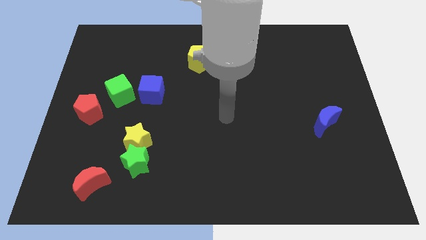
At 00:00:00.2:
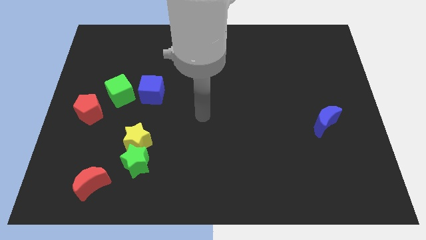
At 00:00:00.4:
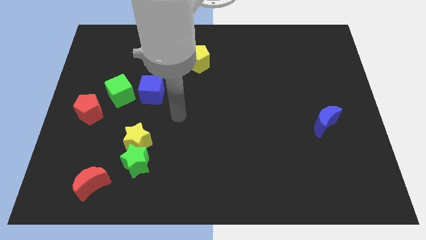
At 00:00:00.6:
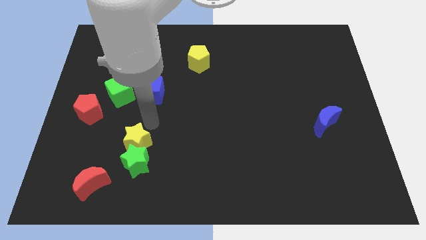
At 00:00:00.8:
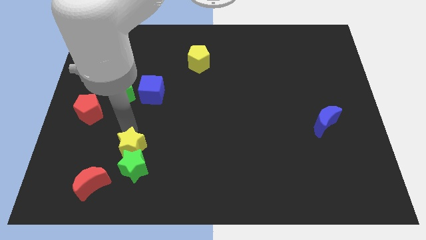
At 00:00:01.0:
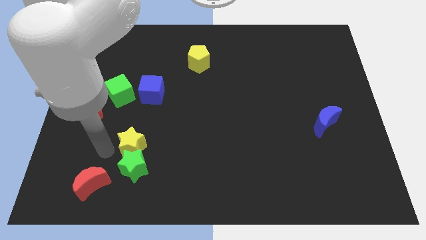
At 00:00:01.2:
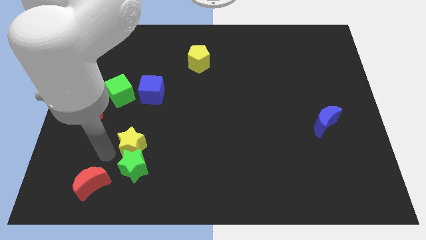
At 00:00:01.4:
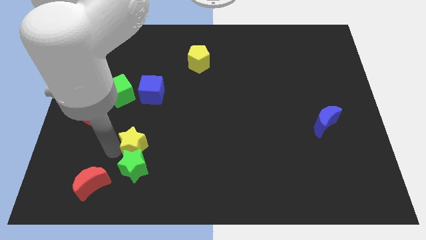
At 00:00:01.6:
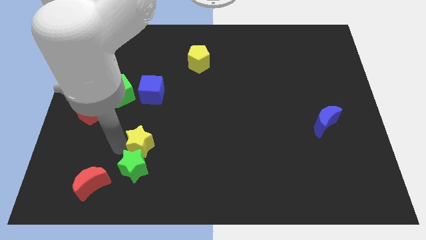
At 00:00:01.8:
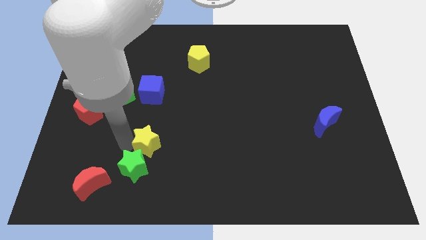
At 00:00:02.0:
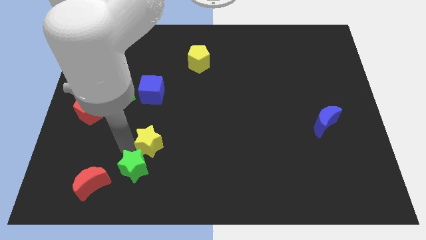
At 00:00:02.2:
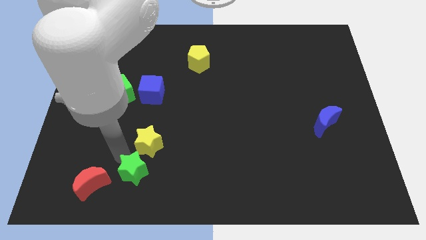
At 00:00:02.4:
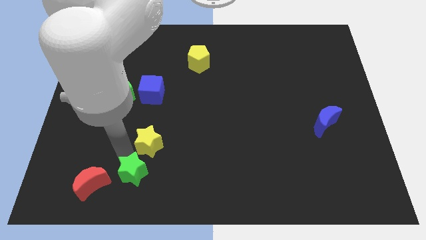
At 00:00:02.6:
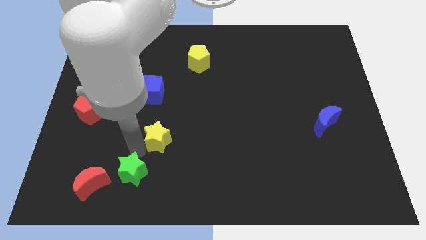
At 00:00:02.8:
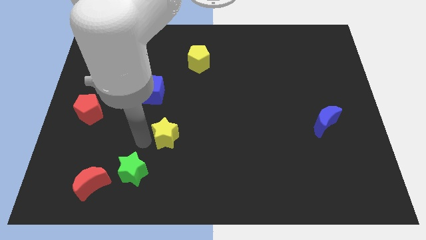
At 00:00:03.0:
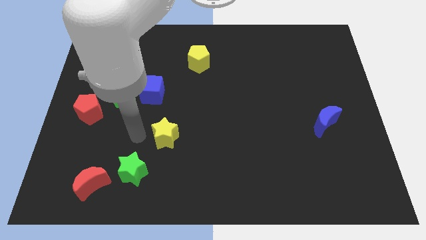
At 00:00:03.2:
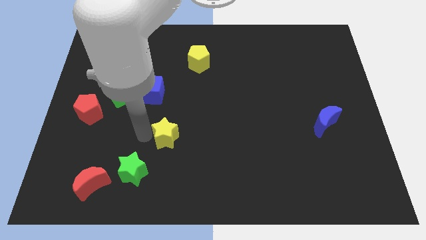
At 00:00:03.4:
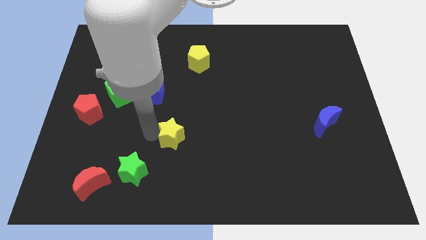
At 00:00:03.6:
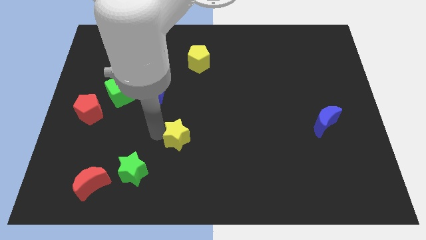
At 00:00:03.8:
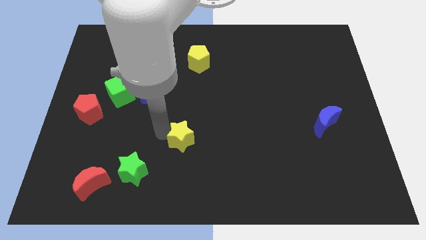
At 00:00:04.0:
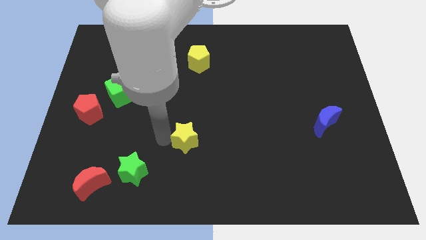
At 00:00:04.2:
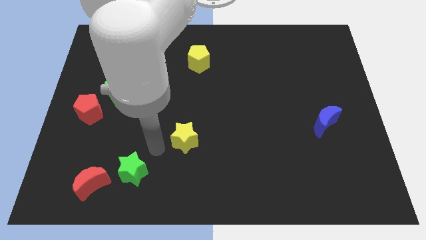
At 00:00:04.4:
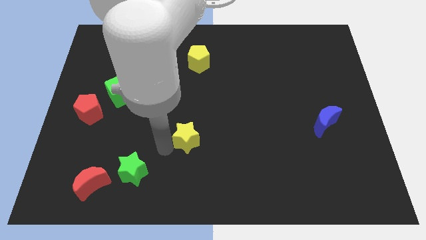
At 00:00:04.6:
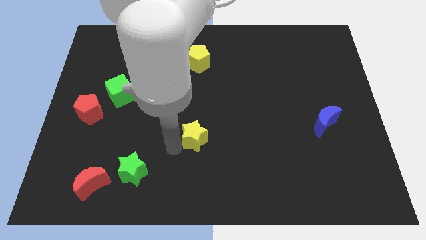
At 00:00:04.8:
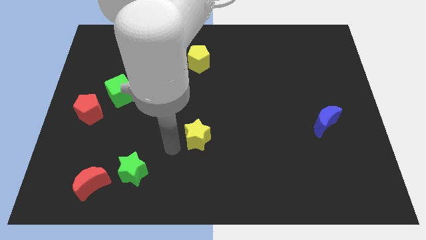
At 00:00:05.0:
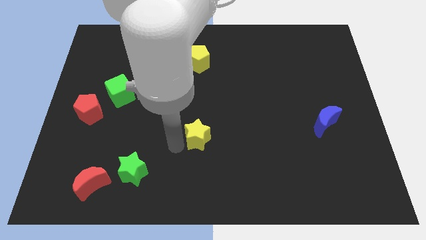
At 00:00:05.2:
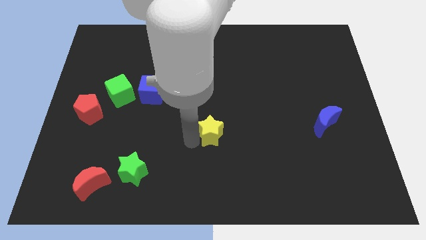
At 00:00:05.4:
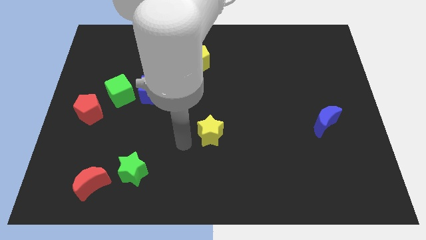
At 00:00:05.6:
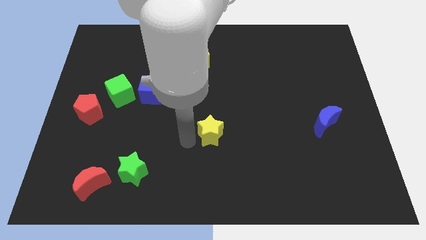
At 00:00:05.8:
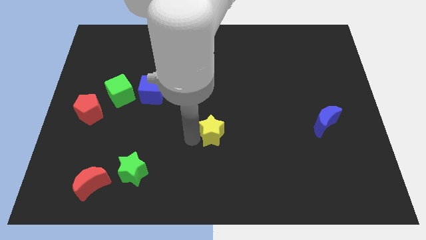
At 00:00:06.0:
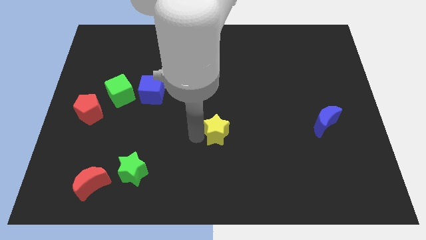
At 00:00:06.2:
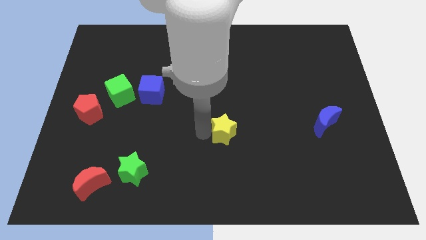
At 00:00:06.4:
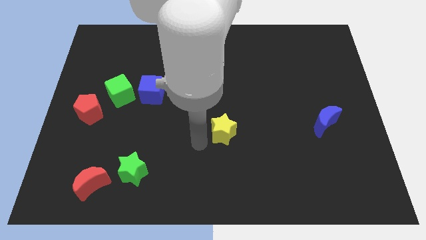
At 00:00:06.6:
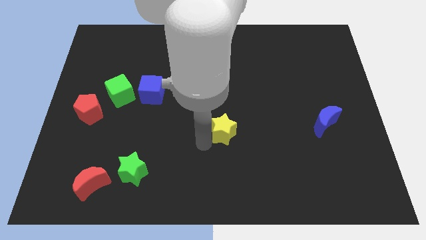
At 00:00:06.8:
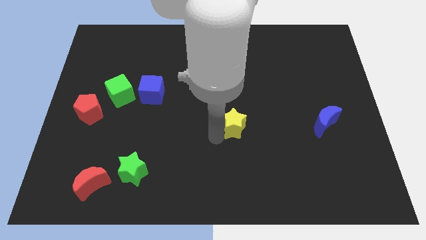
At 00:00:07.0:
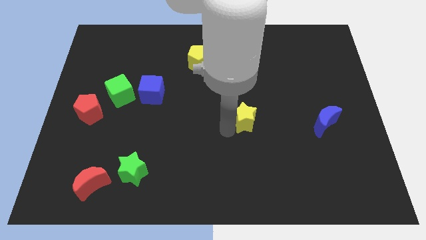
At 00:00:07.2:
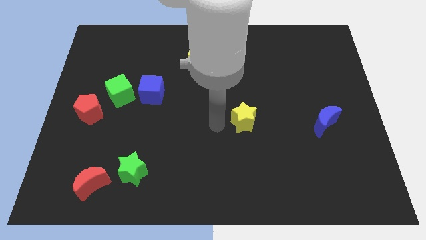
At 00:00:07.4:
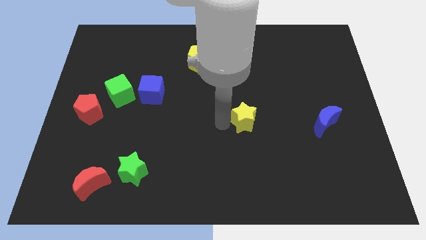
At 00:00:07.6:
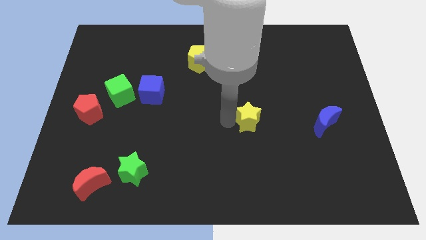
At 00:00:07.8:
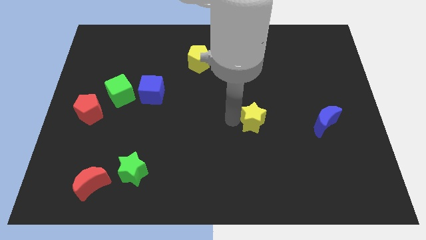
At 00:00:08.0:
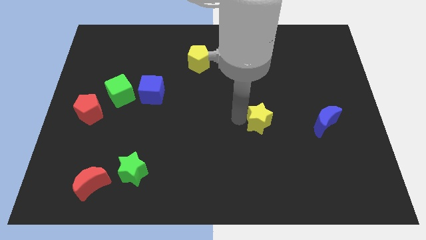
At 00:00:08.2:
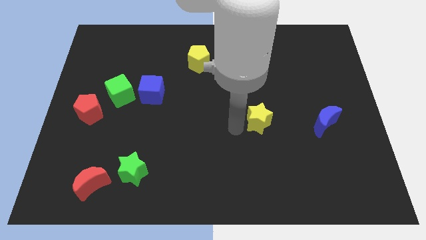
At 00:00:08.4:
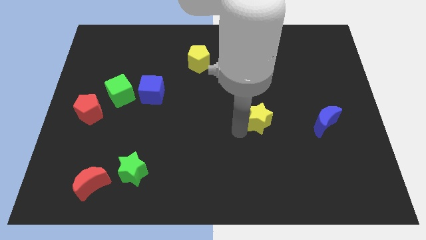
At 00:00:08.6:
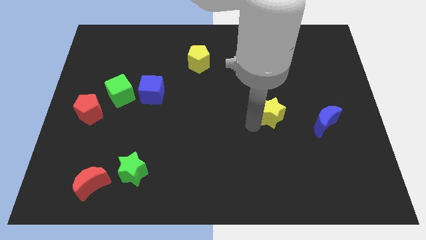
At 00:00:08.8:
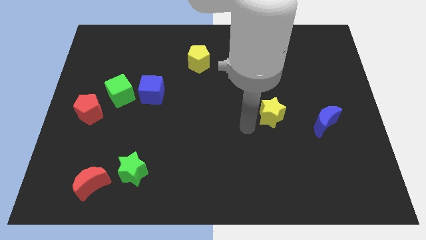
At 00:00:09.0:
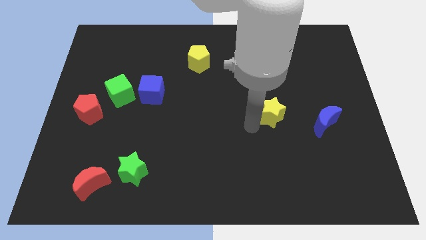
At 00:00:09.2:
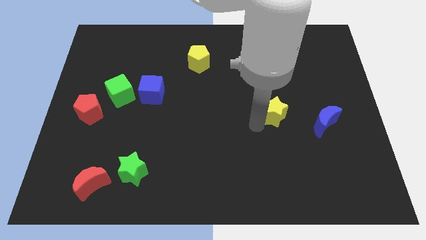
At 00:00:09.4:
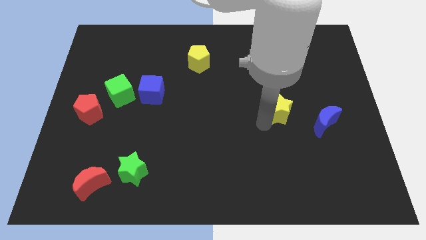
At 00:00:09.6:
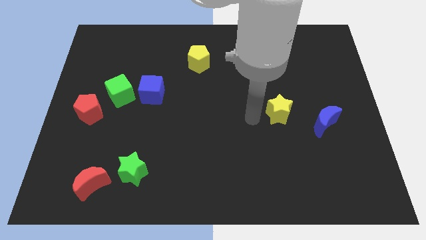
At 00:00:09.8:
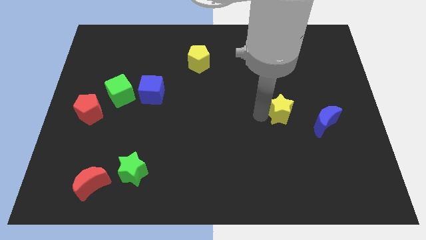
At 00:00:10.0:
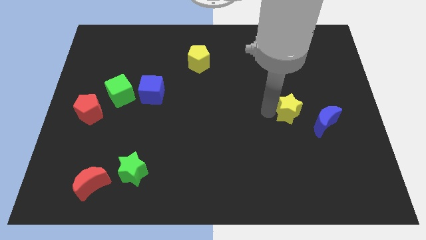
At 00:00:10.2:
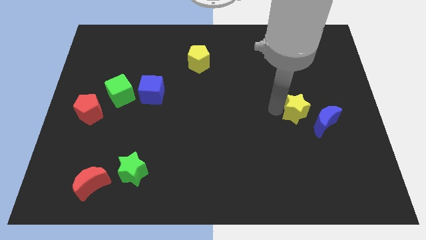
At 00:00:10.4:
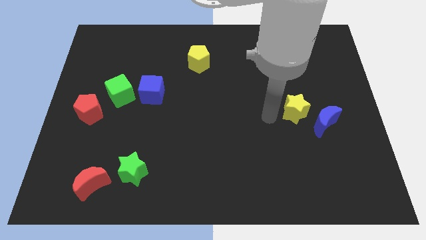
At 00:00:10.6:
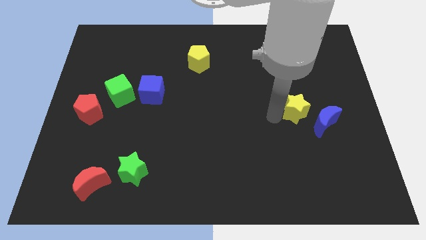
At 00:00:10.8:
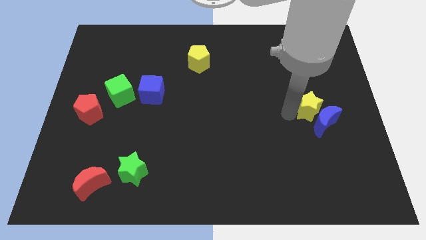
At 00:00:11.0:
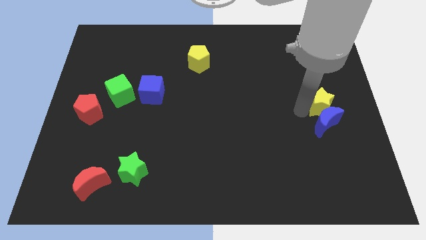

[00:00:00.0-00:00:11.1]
put the yellow star to the center right

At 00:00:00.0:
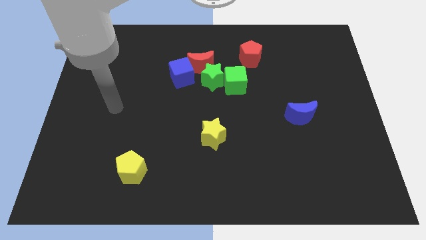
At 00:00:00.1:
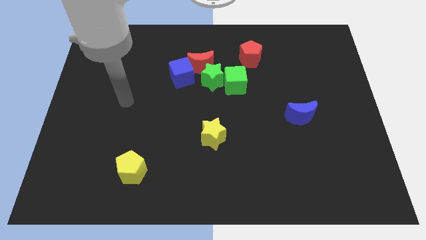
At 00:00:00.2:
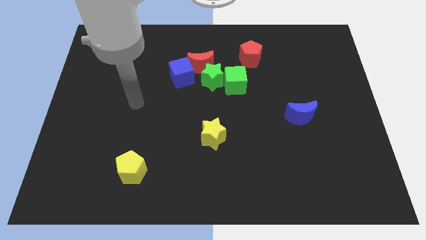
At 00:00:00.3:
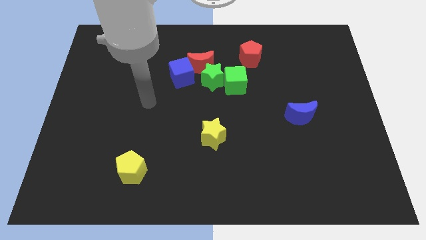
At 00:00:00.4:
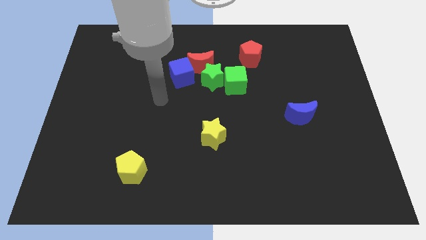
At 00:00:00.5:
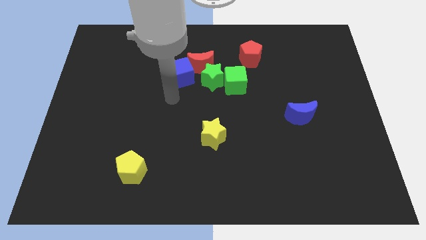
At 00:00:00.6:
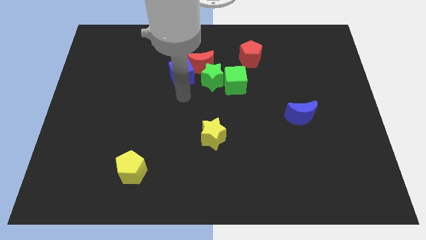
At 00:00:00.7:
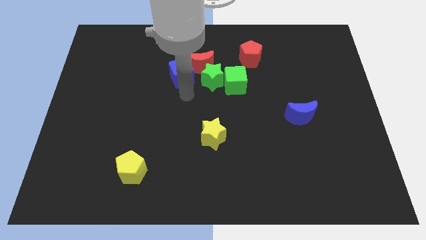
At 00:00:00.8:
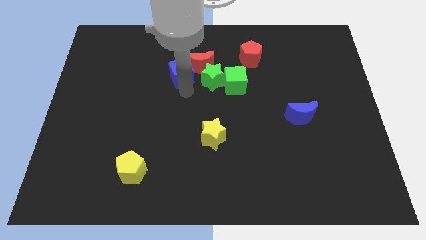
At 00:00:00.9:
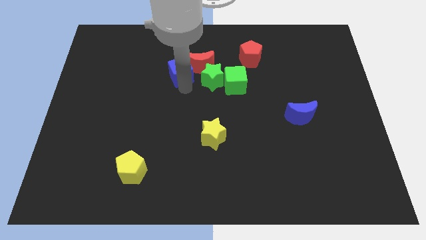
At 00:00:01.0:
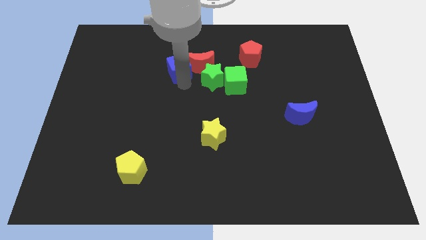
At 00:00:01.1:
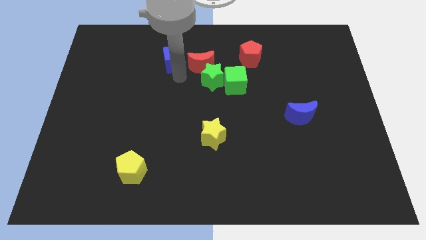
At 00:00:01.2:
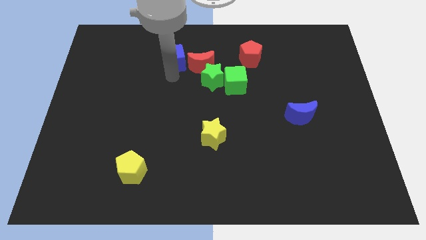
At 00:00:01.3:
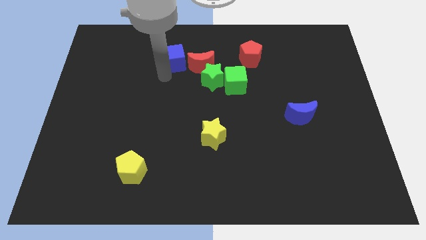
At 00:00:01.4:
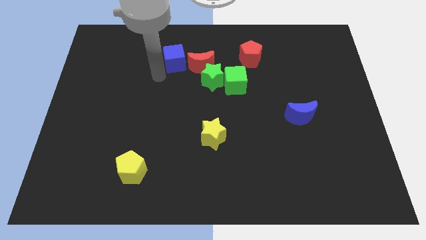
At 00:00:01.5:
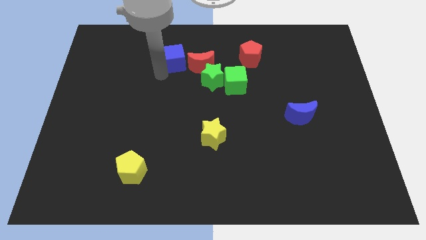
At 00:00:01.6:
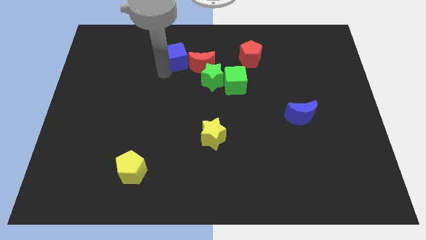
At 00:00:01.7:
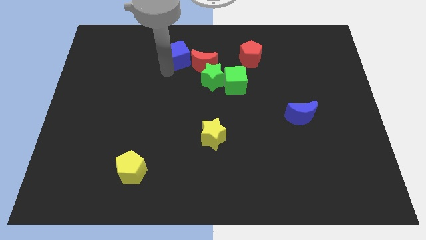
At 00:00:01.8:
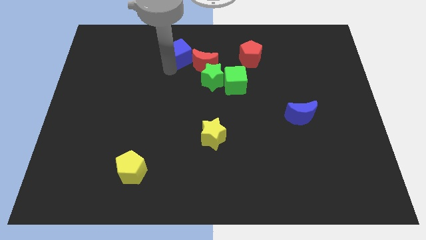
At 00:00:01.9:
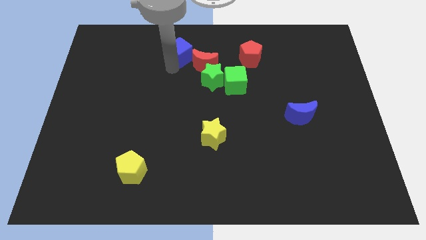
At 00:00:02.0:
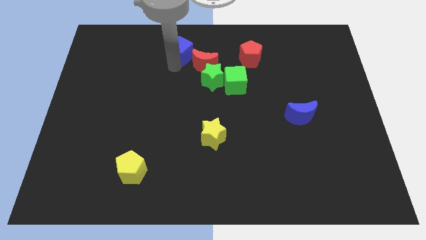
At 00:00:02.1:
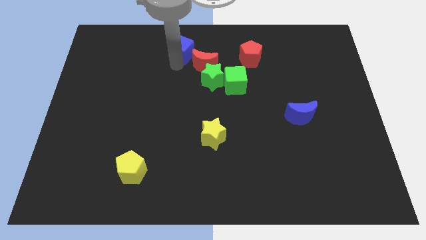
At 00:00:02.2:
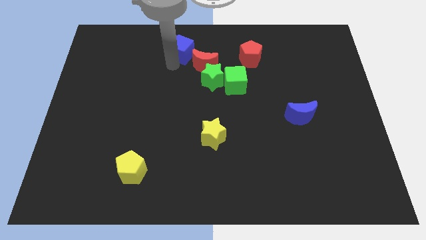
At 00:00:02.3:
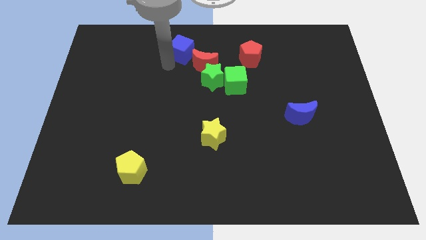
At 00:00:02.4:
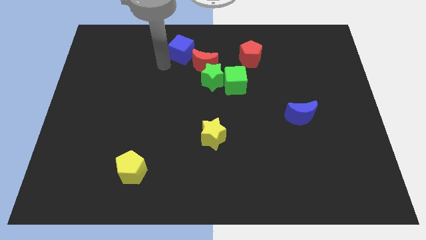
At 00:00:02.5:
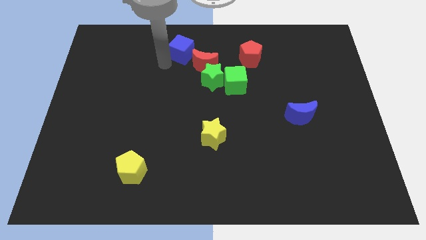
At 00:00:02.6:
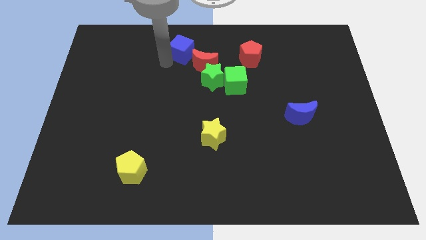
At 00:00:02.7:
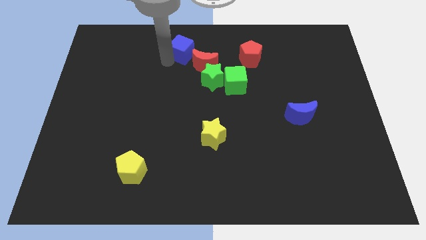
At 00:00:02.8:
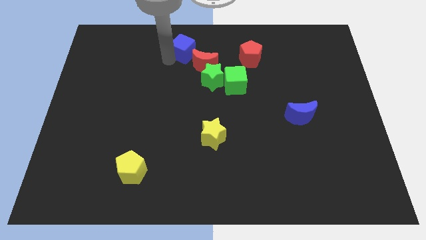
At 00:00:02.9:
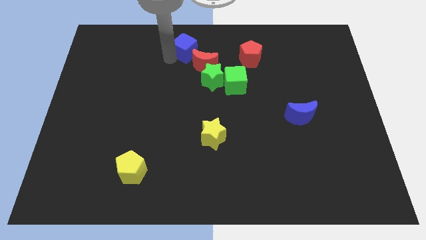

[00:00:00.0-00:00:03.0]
move the blue cube to the towards your base
